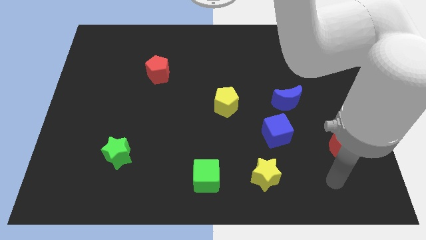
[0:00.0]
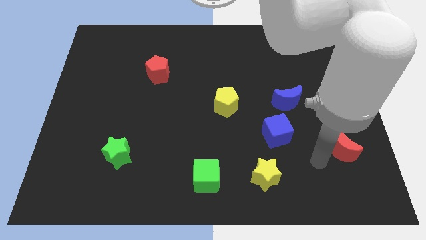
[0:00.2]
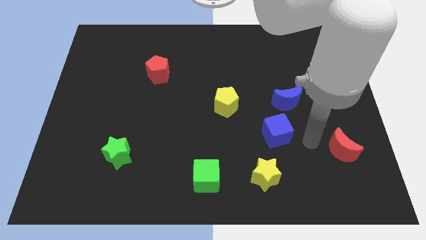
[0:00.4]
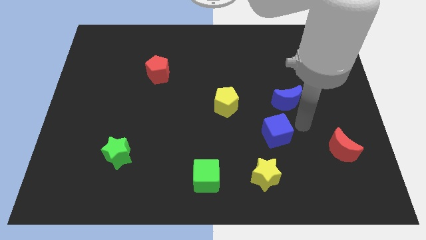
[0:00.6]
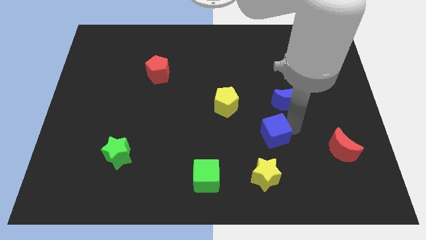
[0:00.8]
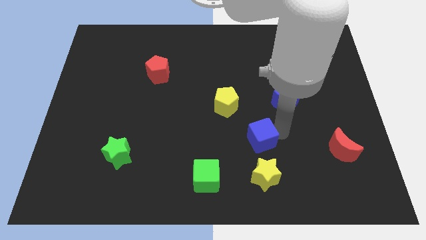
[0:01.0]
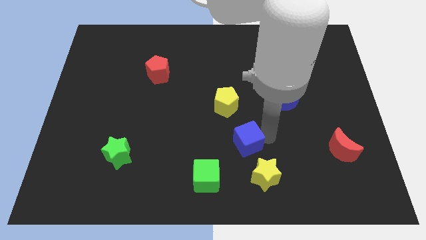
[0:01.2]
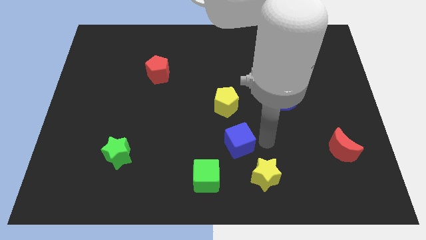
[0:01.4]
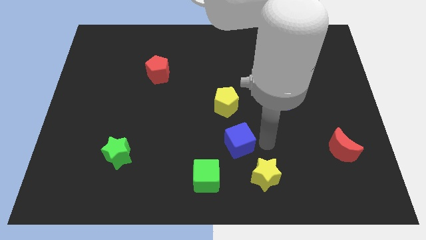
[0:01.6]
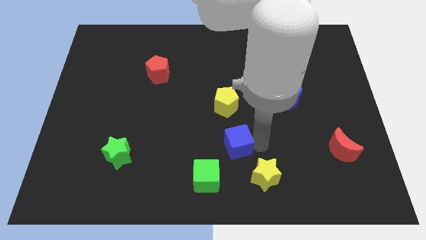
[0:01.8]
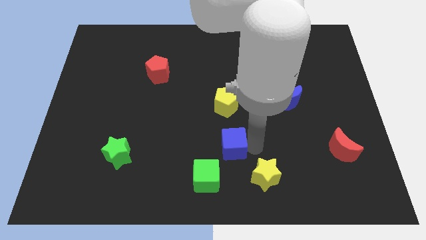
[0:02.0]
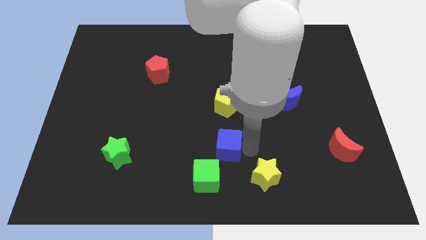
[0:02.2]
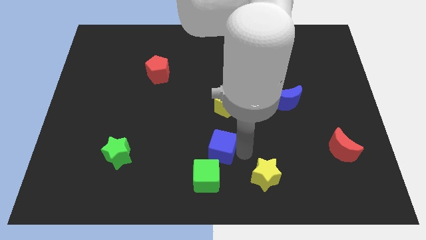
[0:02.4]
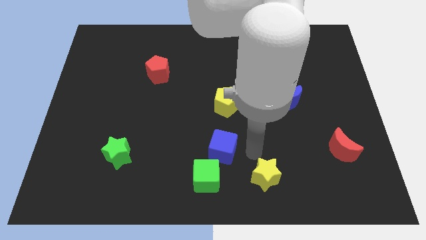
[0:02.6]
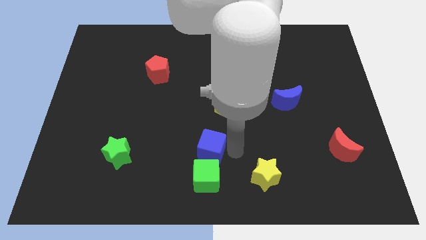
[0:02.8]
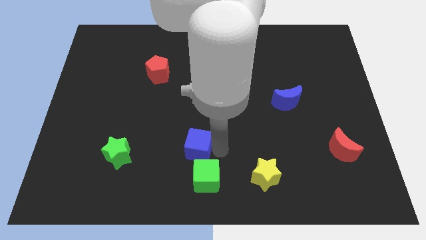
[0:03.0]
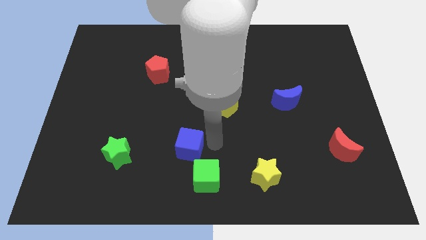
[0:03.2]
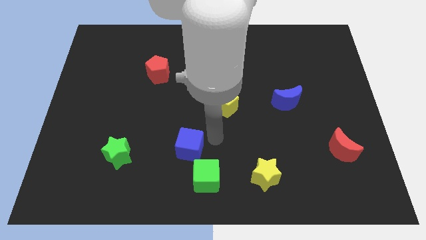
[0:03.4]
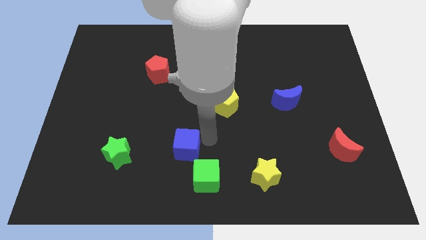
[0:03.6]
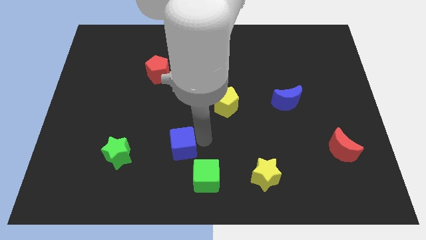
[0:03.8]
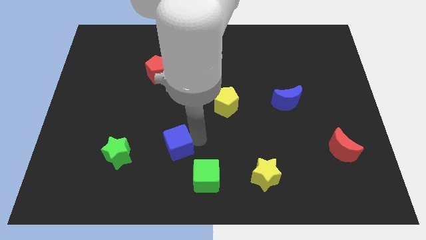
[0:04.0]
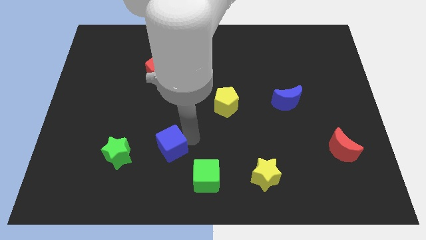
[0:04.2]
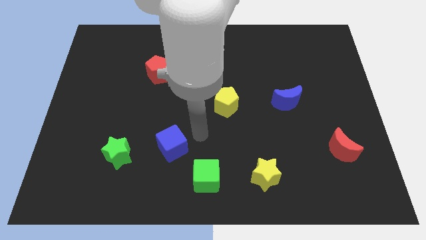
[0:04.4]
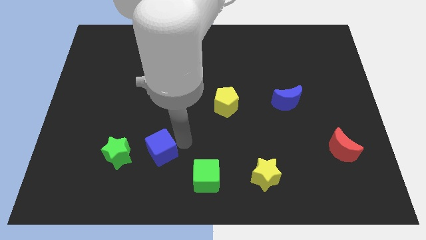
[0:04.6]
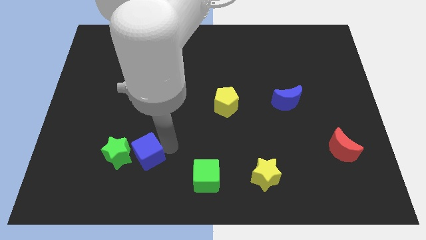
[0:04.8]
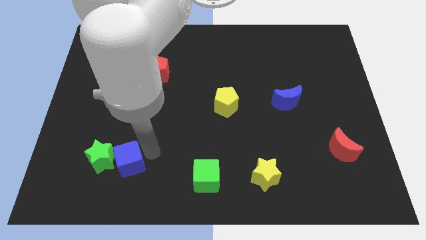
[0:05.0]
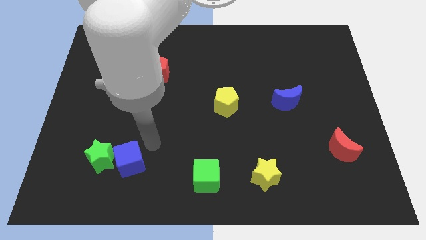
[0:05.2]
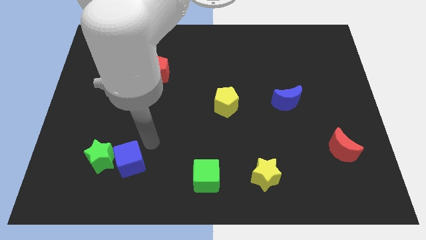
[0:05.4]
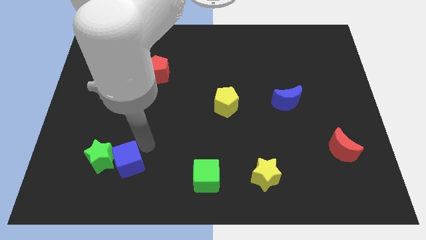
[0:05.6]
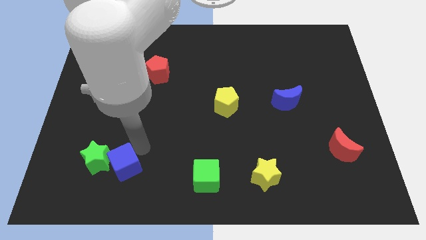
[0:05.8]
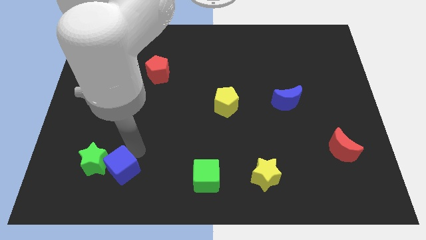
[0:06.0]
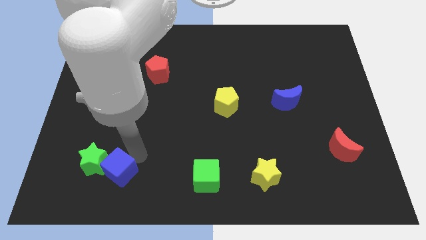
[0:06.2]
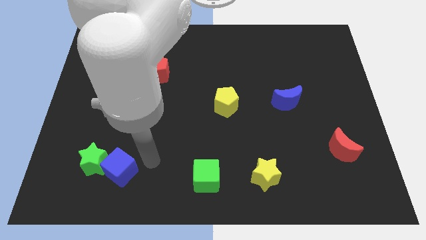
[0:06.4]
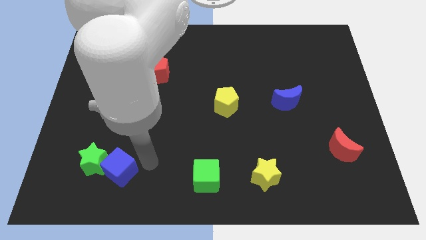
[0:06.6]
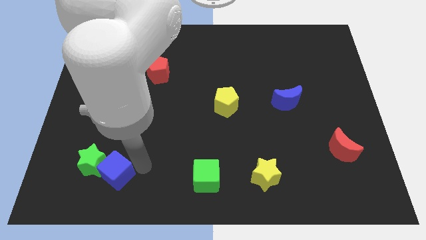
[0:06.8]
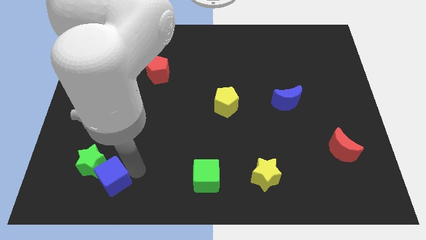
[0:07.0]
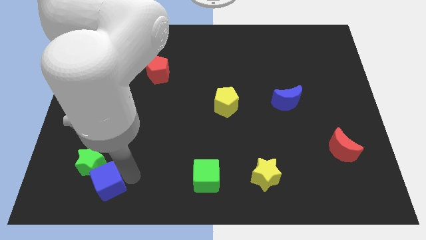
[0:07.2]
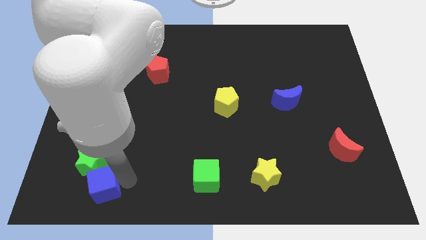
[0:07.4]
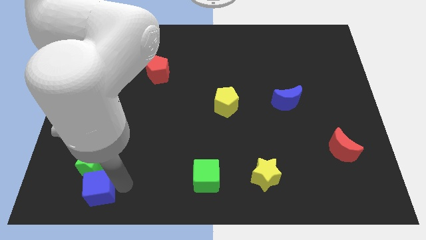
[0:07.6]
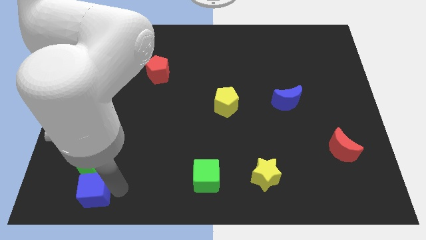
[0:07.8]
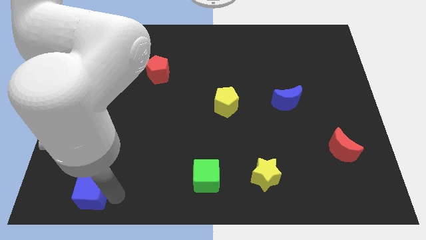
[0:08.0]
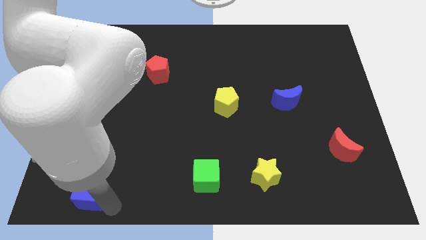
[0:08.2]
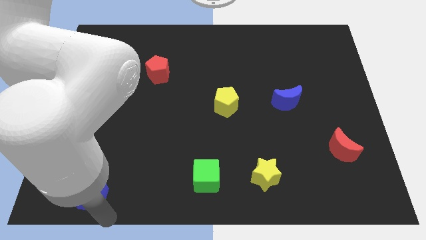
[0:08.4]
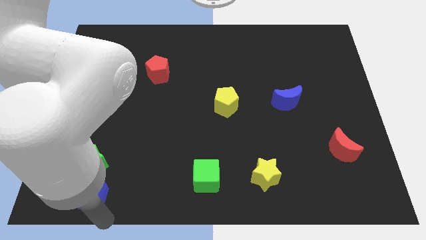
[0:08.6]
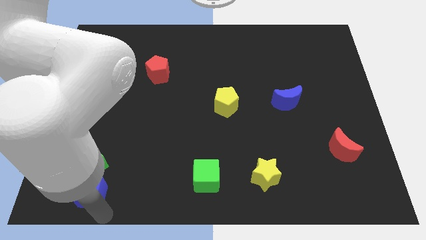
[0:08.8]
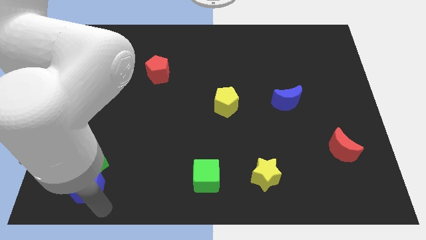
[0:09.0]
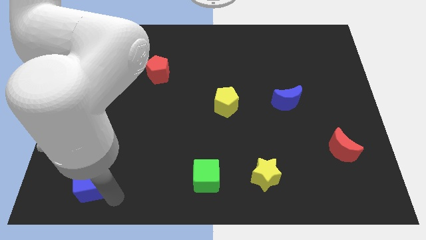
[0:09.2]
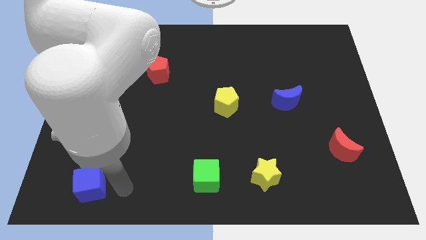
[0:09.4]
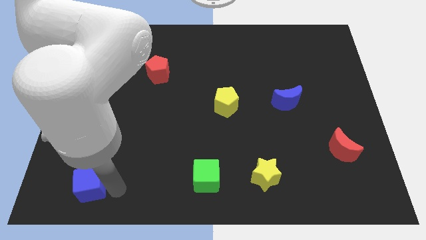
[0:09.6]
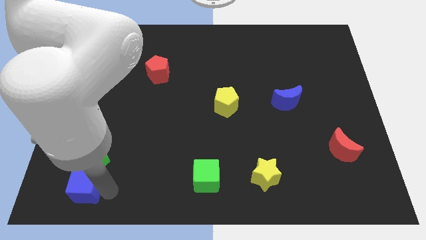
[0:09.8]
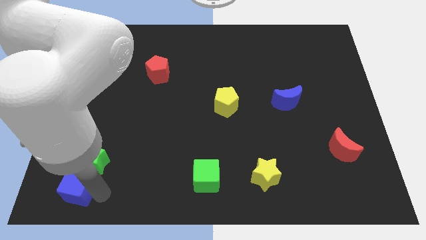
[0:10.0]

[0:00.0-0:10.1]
slide the blue cube to the bottom left of the board

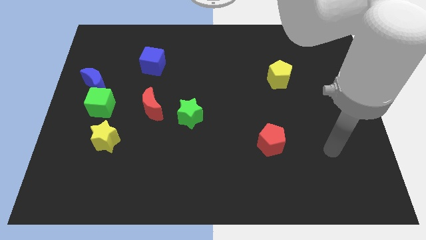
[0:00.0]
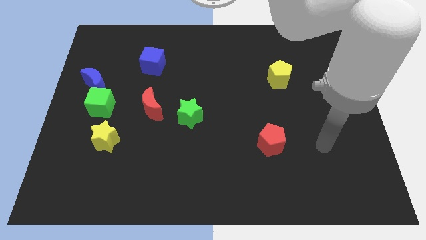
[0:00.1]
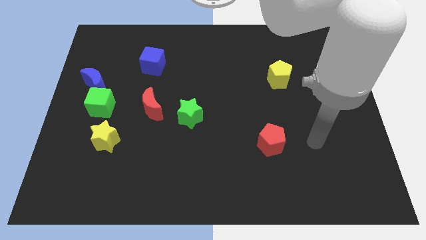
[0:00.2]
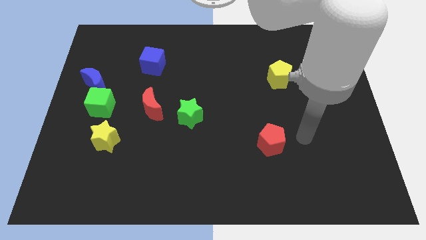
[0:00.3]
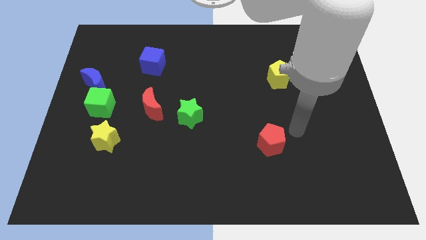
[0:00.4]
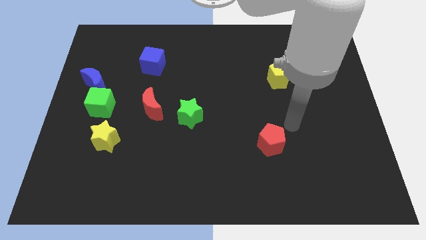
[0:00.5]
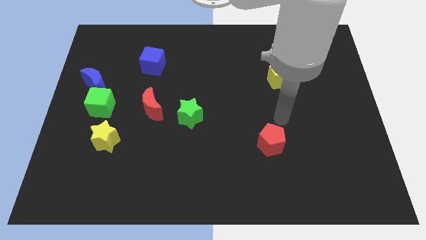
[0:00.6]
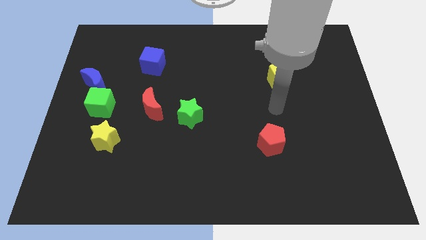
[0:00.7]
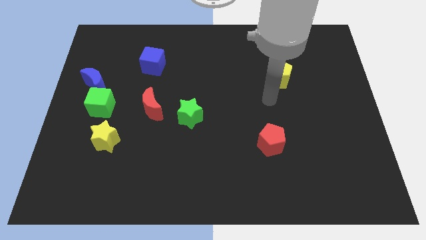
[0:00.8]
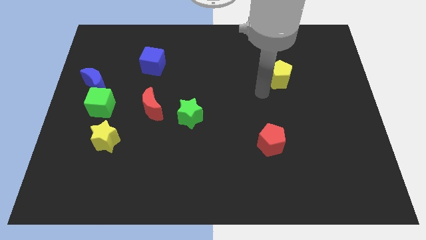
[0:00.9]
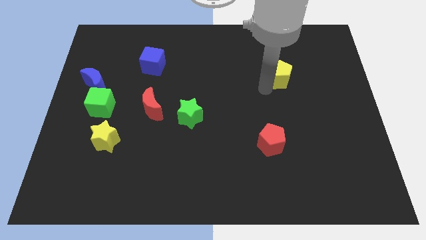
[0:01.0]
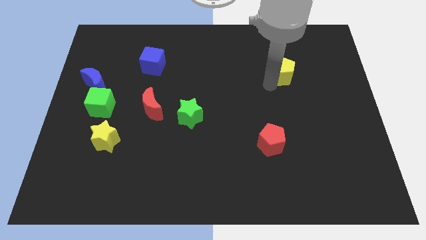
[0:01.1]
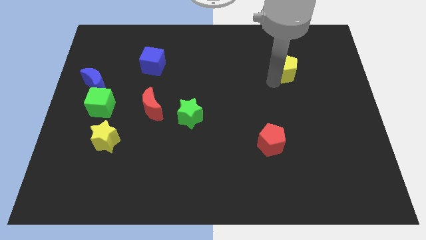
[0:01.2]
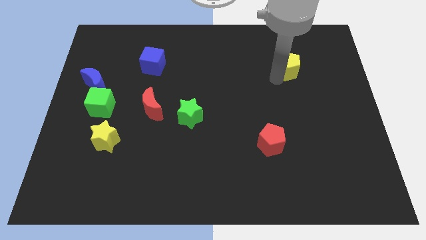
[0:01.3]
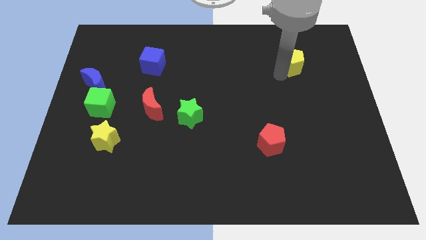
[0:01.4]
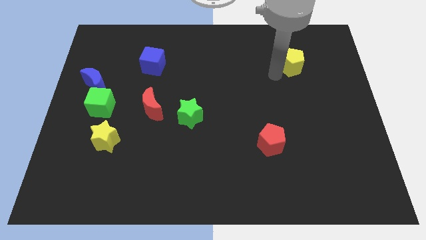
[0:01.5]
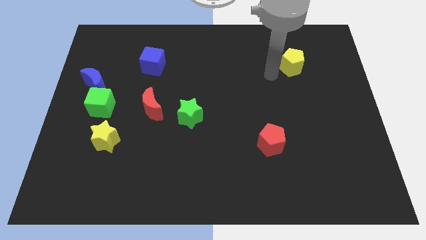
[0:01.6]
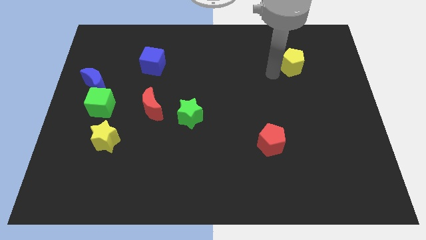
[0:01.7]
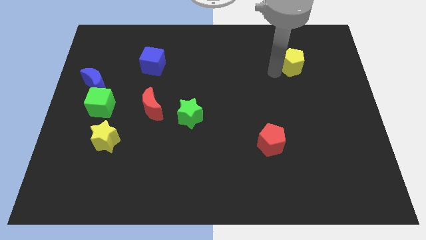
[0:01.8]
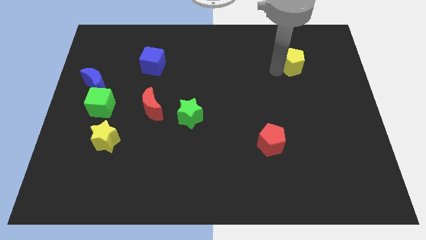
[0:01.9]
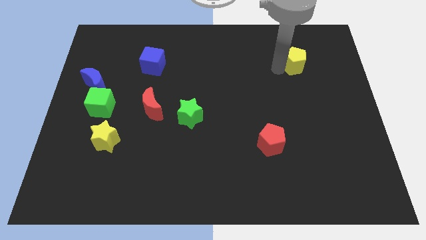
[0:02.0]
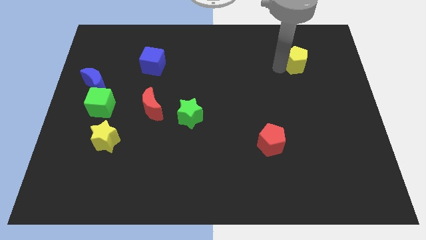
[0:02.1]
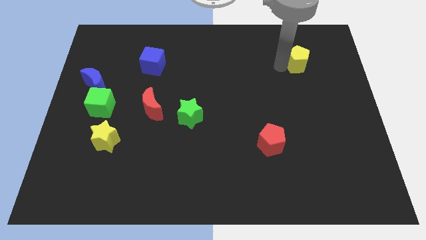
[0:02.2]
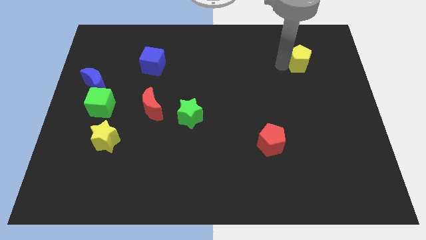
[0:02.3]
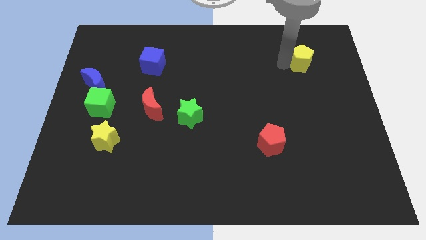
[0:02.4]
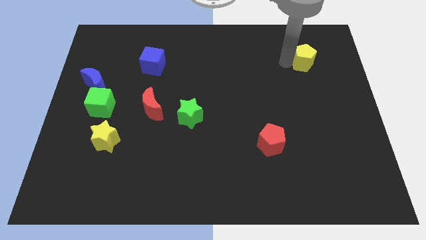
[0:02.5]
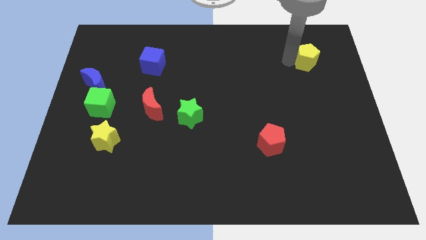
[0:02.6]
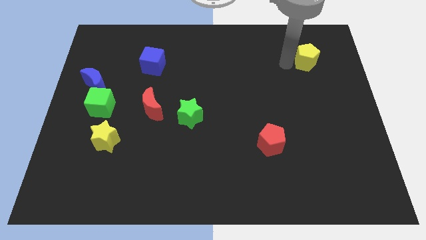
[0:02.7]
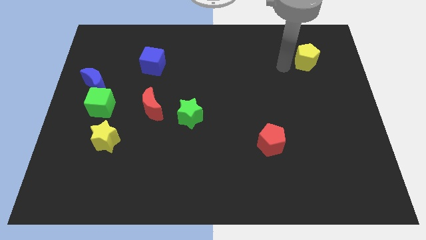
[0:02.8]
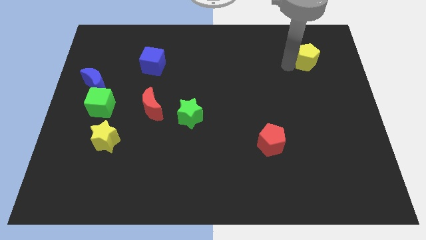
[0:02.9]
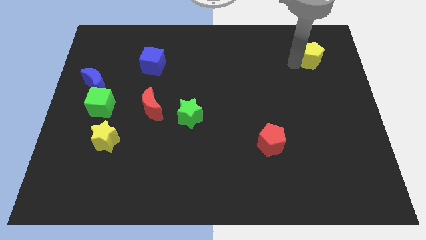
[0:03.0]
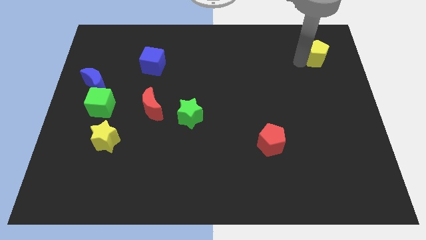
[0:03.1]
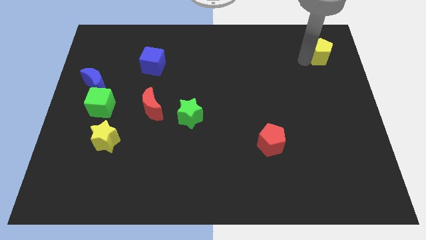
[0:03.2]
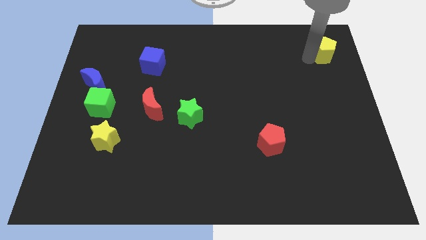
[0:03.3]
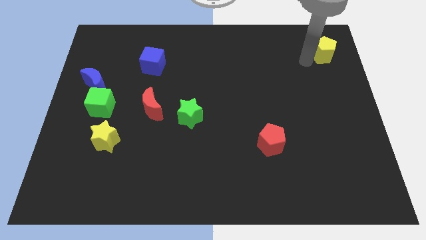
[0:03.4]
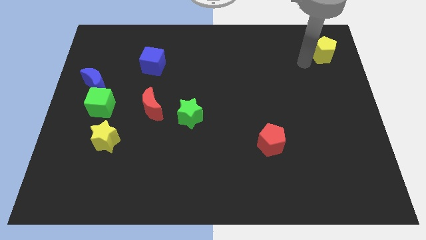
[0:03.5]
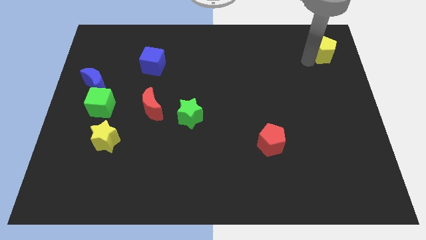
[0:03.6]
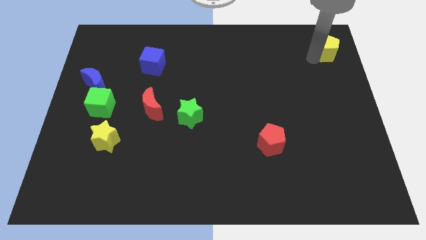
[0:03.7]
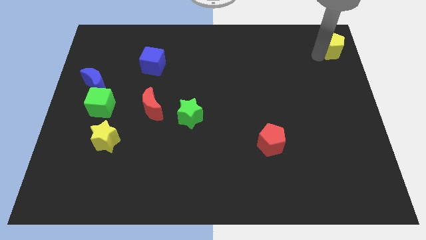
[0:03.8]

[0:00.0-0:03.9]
push the yellow pentagon to the top right corner
